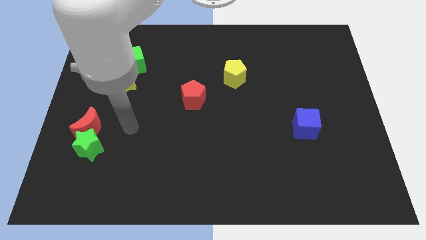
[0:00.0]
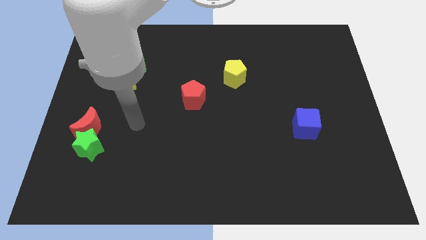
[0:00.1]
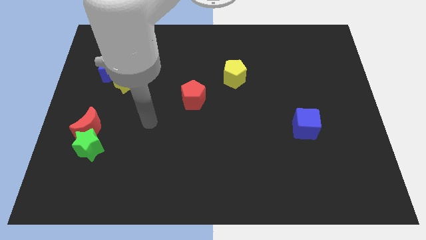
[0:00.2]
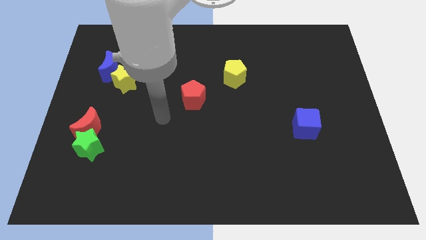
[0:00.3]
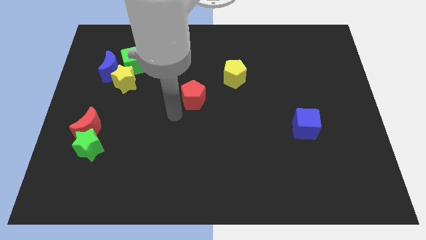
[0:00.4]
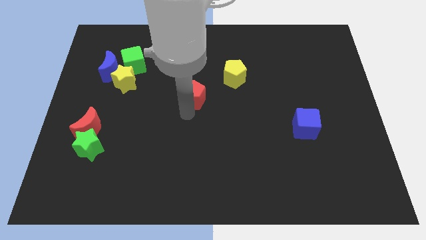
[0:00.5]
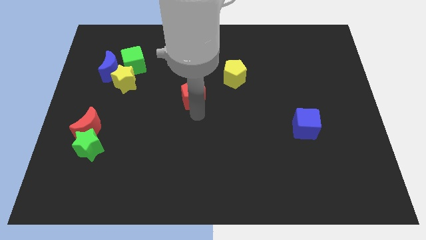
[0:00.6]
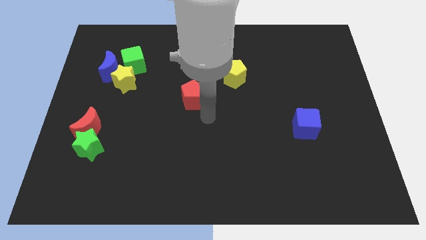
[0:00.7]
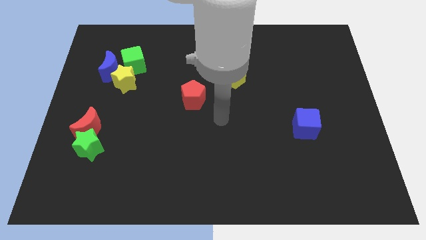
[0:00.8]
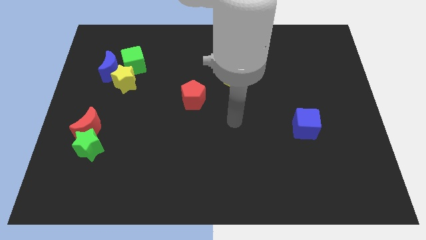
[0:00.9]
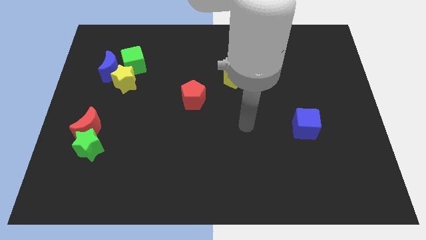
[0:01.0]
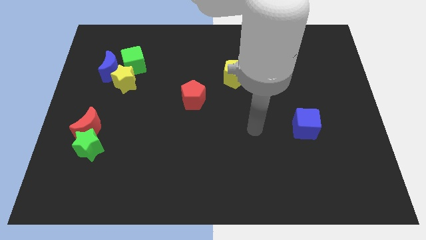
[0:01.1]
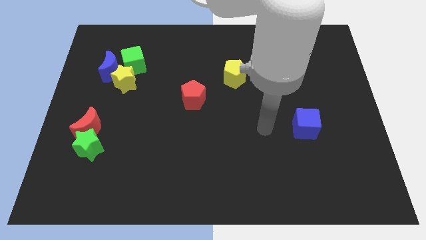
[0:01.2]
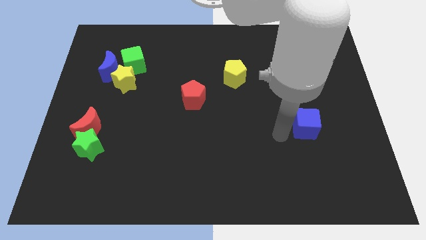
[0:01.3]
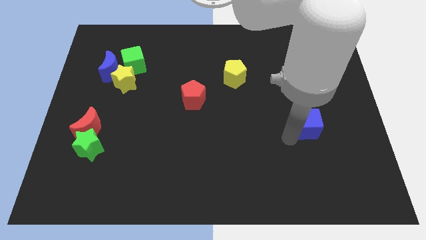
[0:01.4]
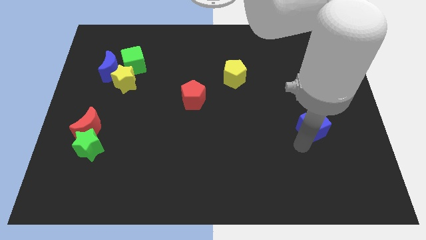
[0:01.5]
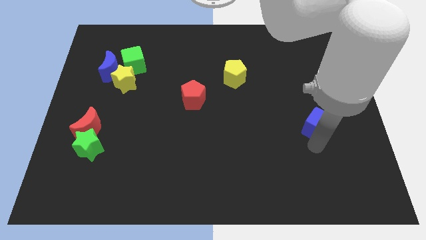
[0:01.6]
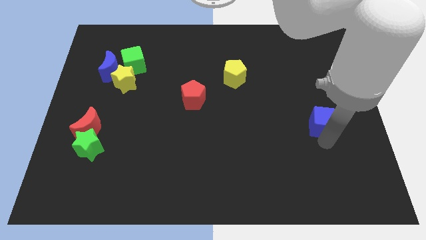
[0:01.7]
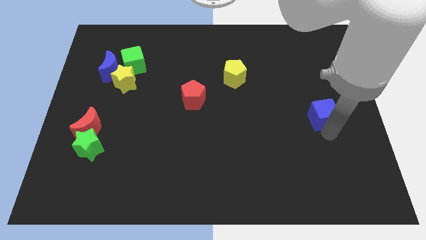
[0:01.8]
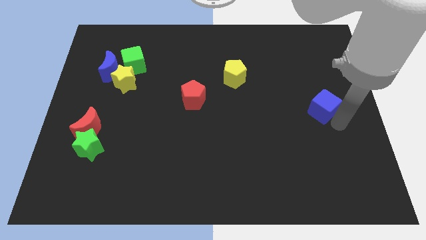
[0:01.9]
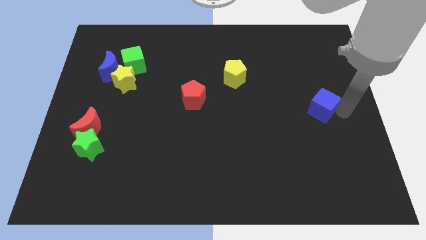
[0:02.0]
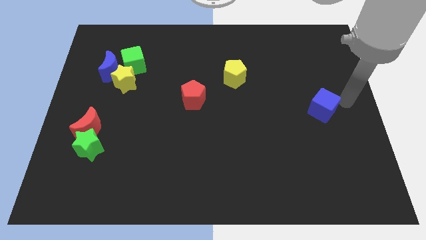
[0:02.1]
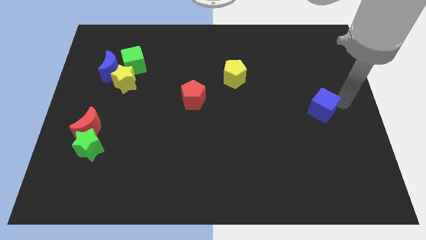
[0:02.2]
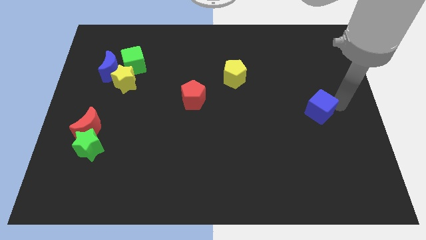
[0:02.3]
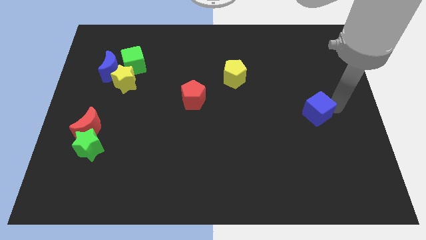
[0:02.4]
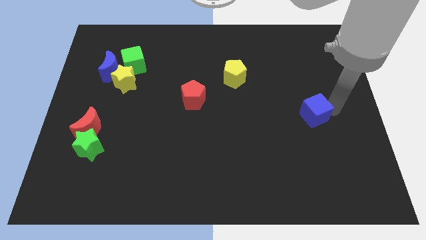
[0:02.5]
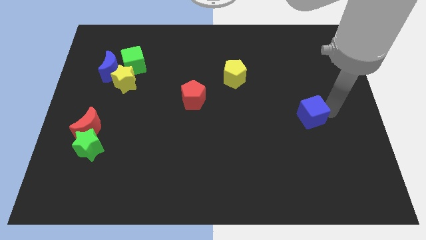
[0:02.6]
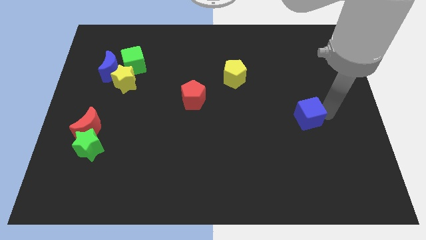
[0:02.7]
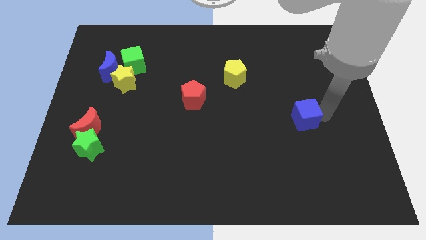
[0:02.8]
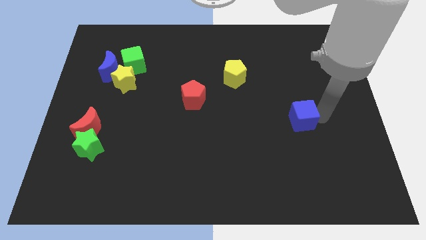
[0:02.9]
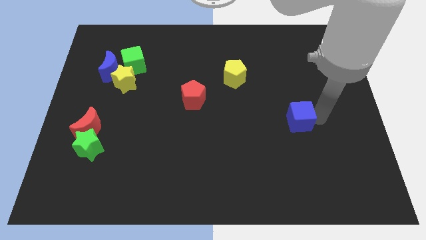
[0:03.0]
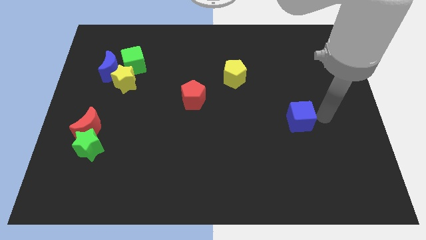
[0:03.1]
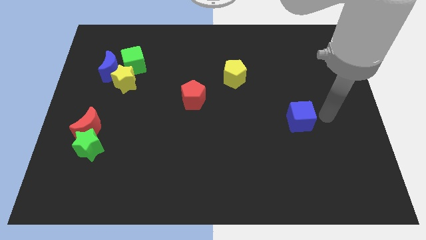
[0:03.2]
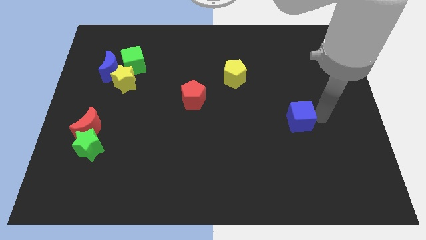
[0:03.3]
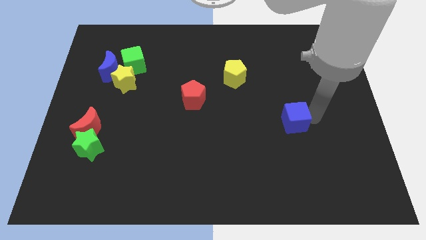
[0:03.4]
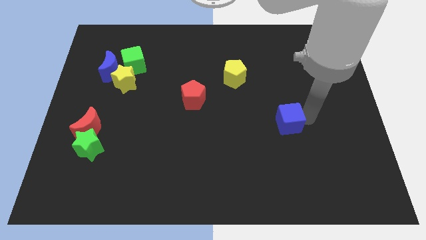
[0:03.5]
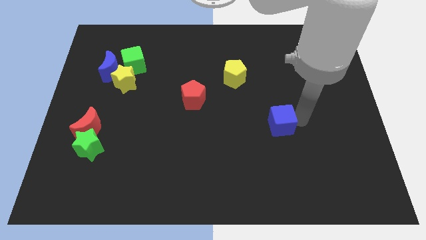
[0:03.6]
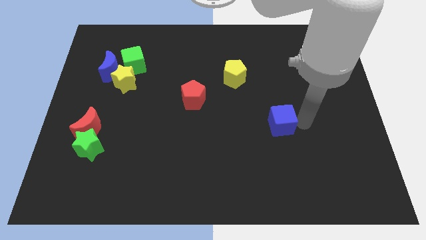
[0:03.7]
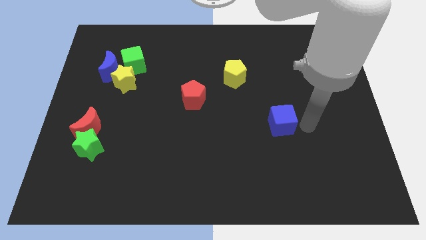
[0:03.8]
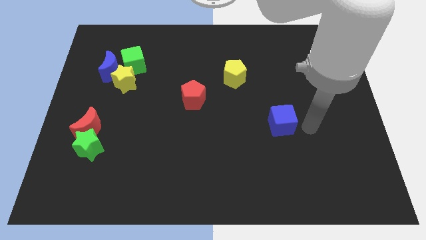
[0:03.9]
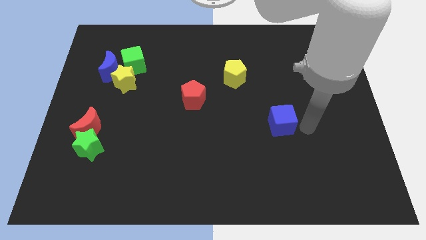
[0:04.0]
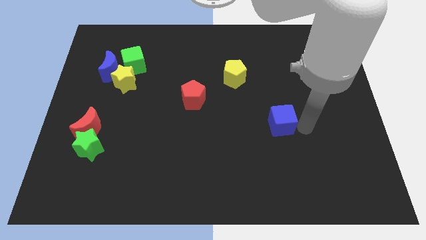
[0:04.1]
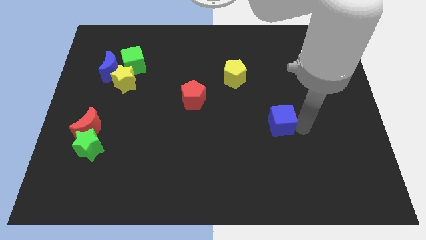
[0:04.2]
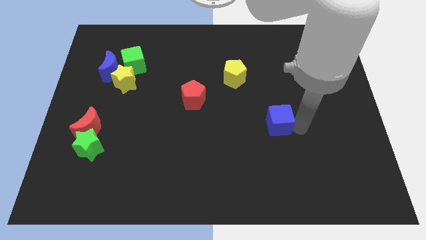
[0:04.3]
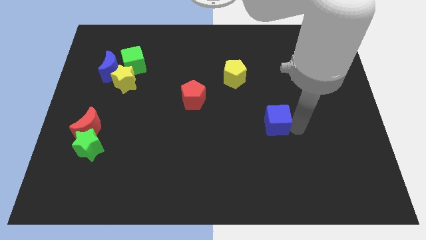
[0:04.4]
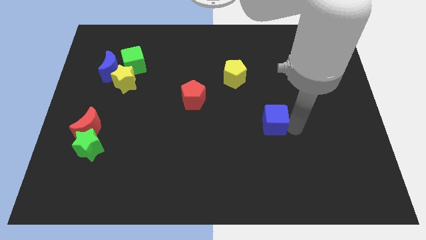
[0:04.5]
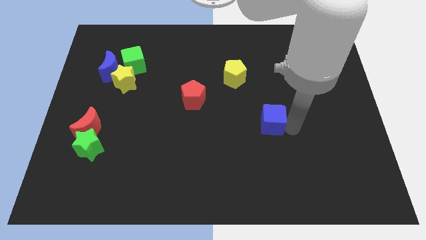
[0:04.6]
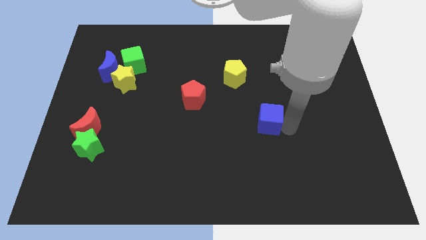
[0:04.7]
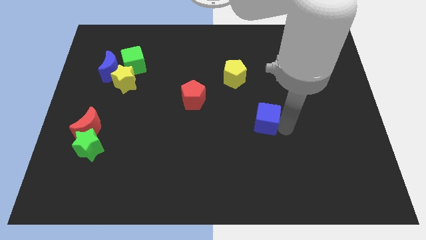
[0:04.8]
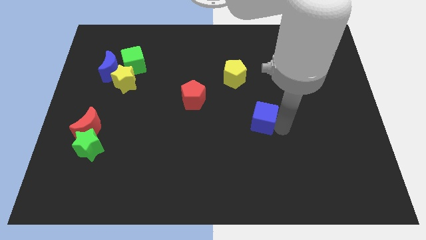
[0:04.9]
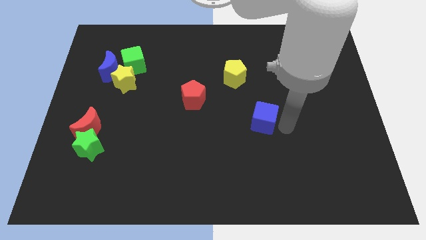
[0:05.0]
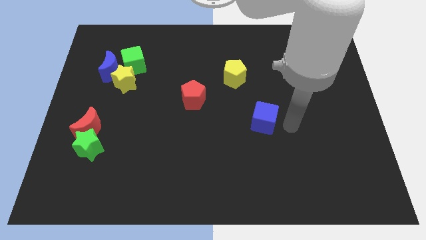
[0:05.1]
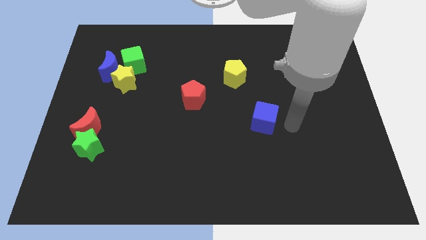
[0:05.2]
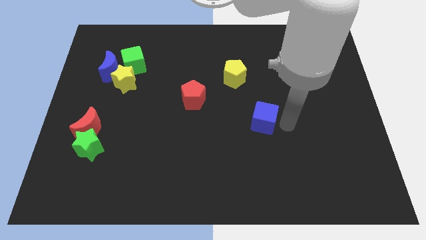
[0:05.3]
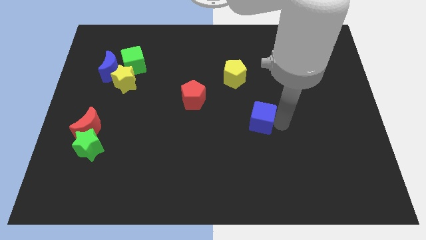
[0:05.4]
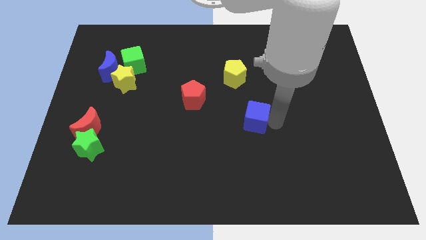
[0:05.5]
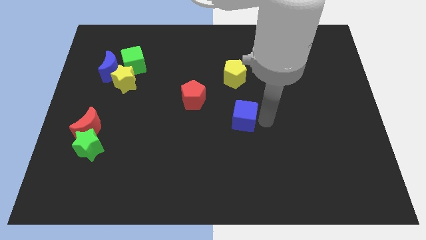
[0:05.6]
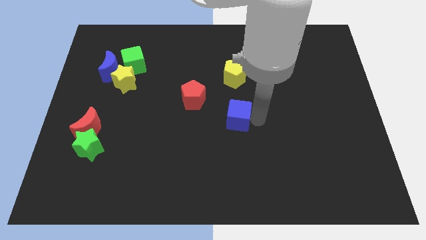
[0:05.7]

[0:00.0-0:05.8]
push the blue cube diagonally down and to the right of the red pentagon
